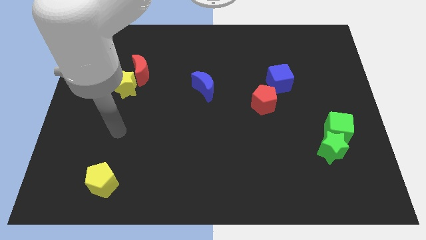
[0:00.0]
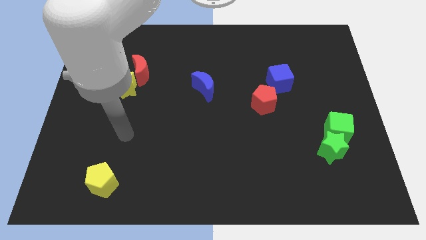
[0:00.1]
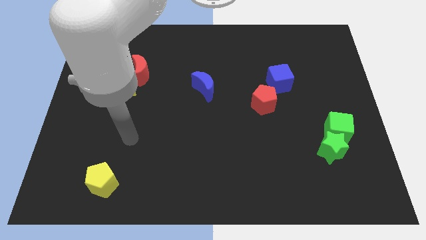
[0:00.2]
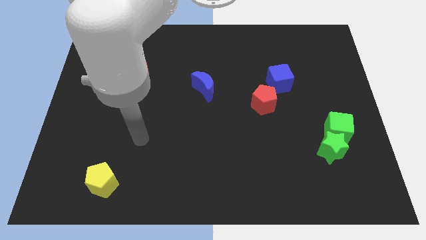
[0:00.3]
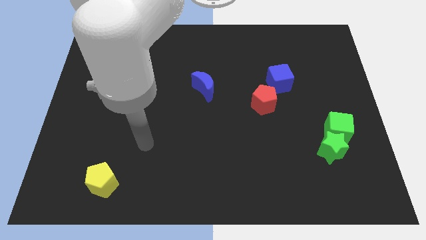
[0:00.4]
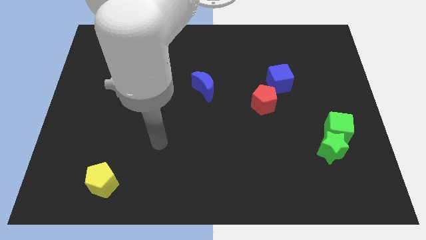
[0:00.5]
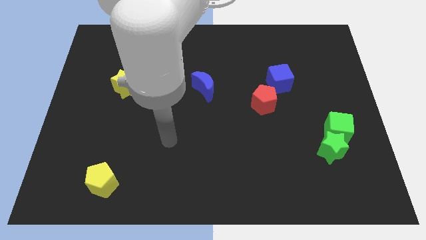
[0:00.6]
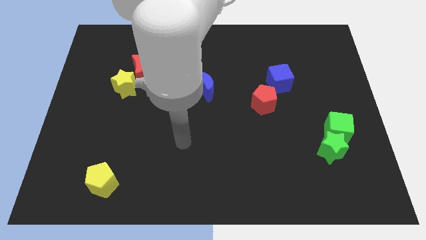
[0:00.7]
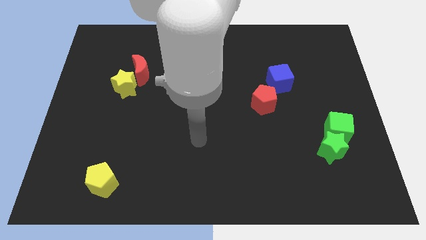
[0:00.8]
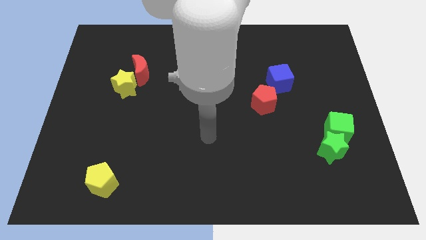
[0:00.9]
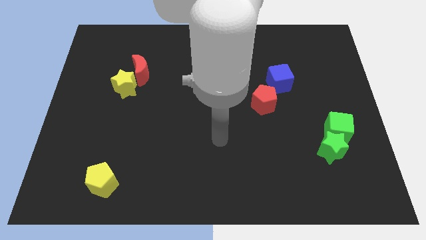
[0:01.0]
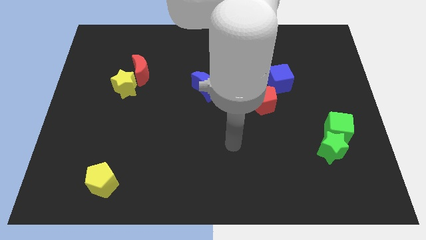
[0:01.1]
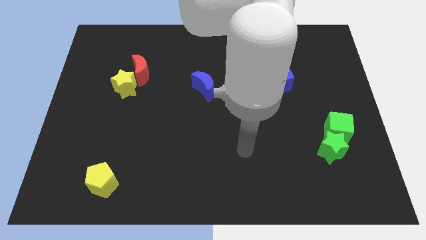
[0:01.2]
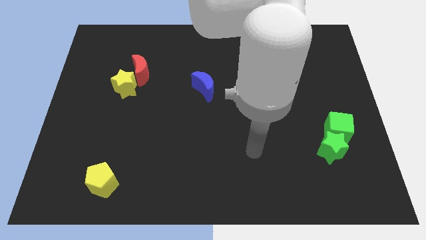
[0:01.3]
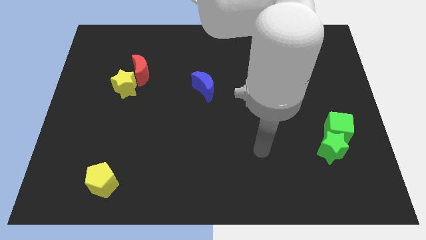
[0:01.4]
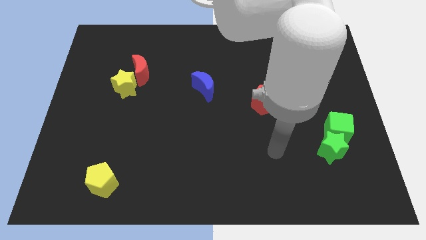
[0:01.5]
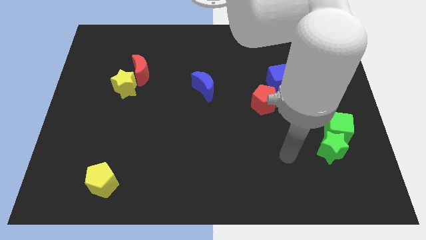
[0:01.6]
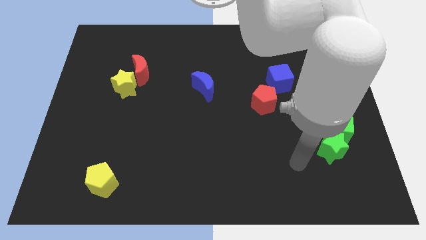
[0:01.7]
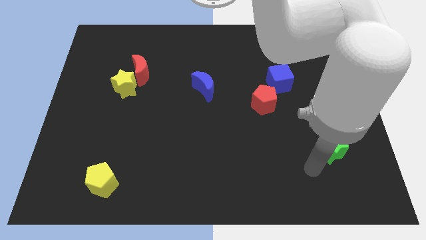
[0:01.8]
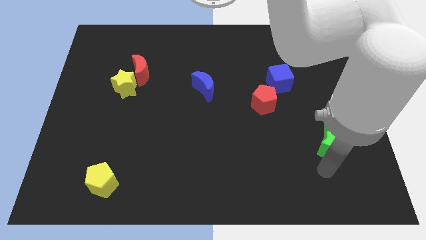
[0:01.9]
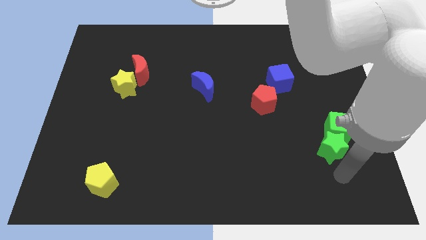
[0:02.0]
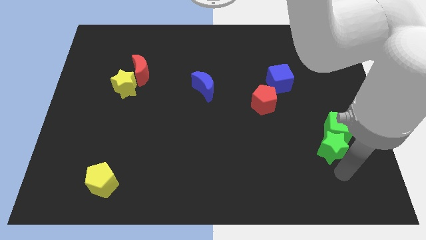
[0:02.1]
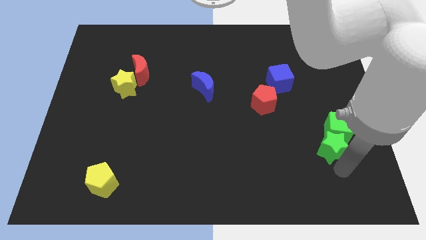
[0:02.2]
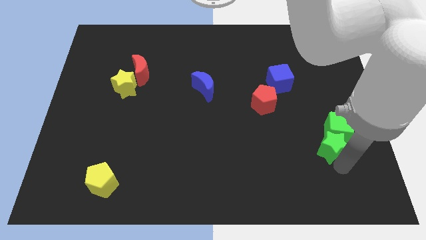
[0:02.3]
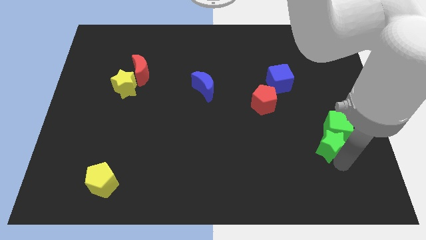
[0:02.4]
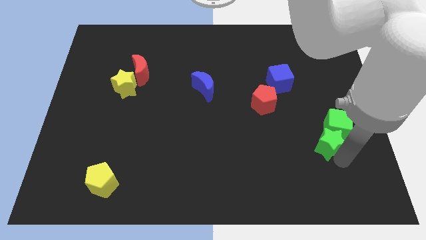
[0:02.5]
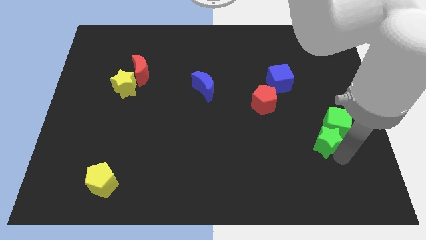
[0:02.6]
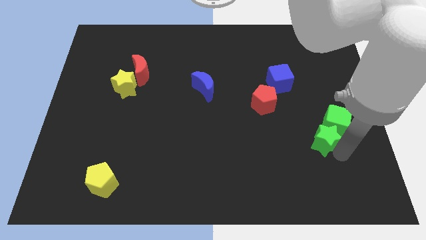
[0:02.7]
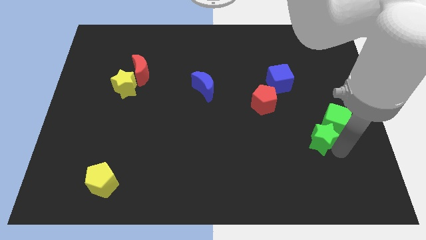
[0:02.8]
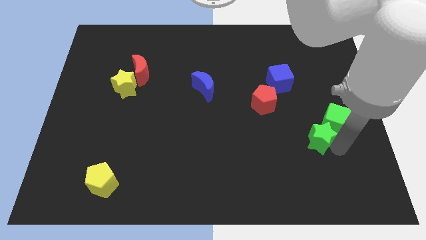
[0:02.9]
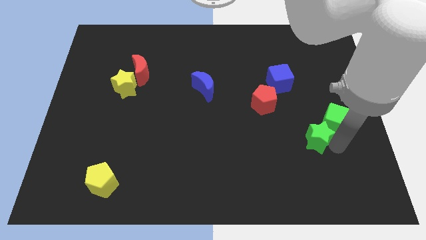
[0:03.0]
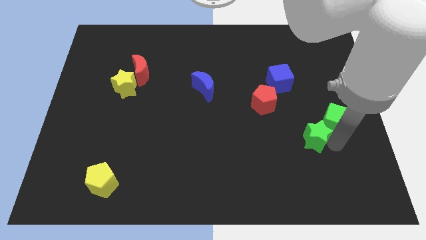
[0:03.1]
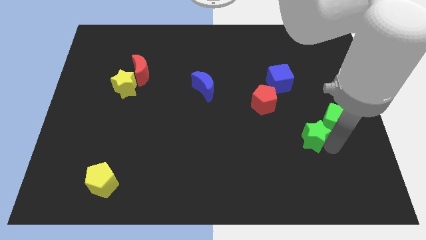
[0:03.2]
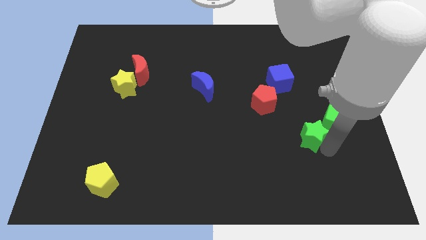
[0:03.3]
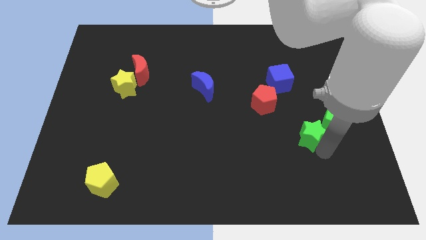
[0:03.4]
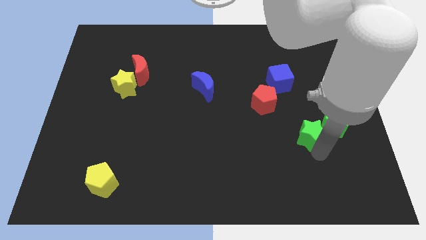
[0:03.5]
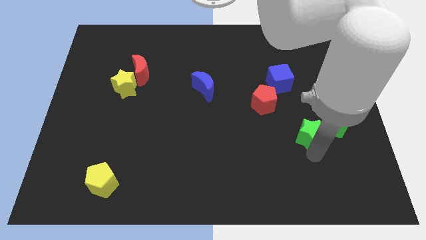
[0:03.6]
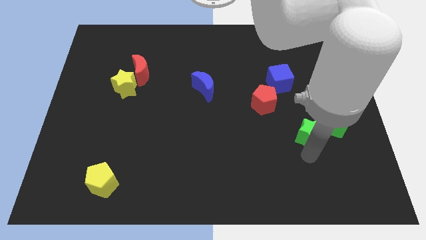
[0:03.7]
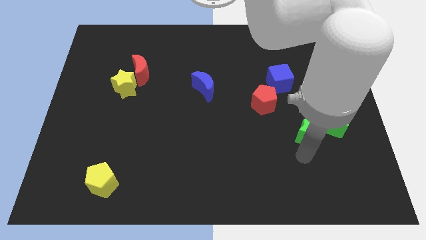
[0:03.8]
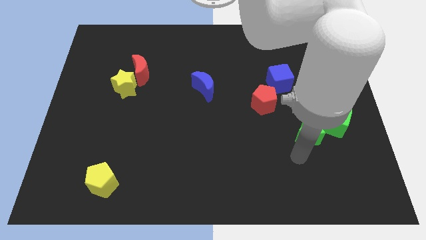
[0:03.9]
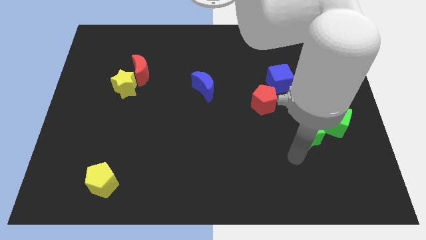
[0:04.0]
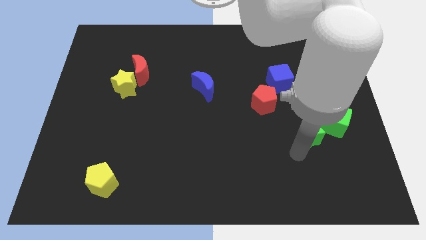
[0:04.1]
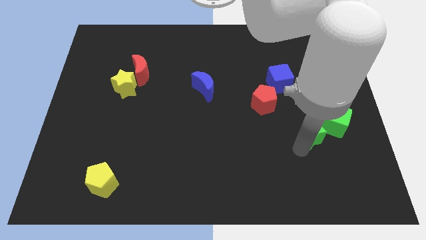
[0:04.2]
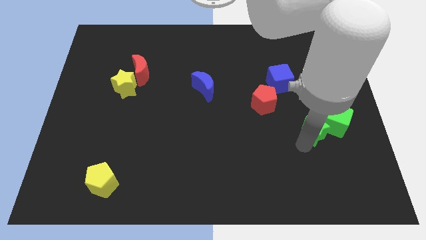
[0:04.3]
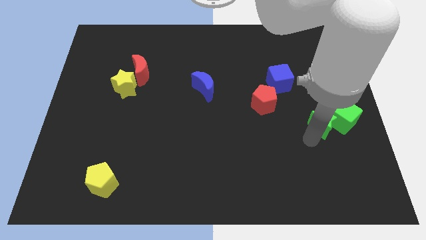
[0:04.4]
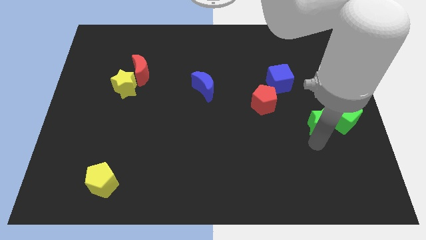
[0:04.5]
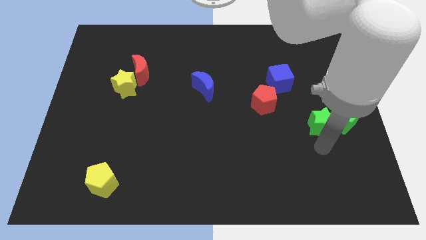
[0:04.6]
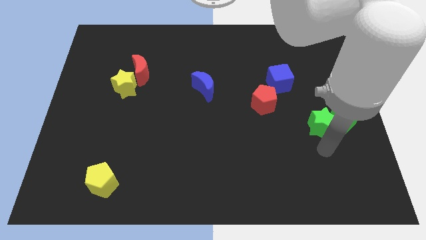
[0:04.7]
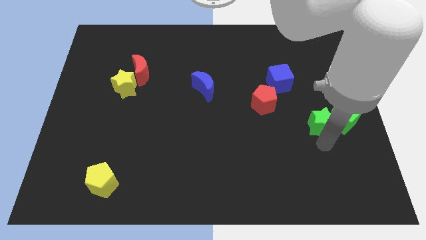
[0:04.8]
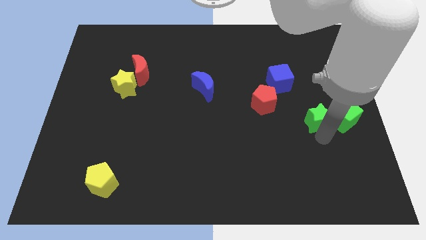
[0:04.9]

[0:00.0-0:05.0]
move the green star to the top left of the green cube

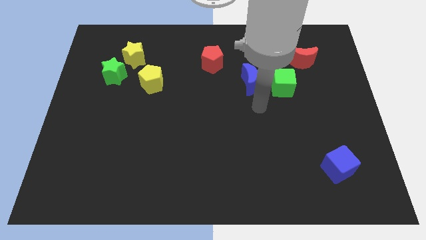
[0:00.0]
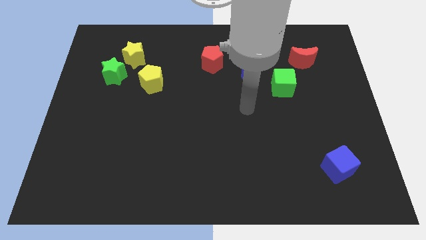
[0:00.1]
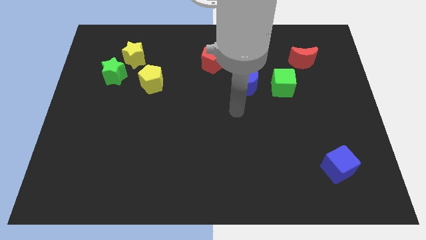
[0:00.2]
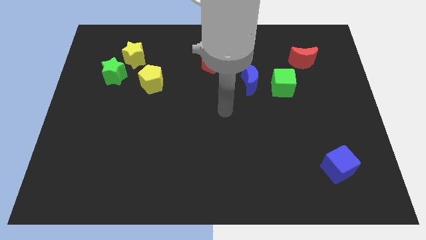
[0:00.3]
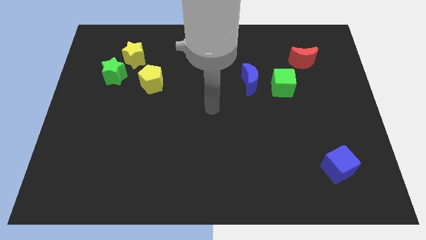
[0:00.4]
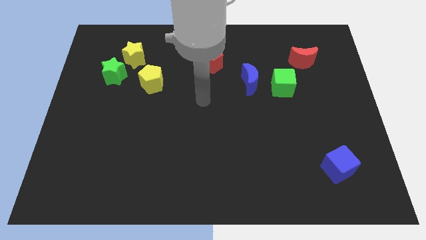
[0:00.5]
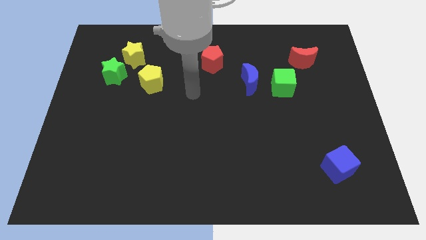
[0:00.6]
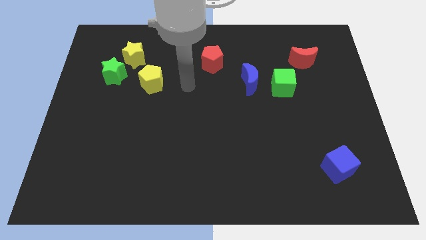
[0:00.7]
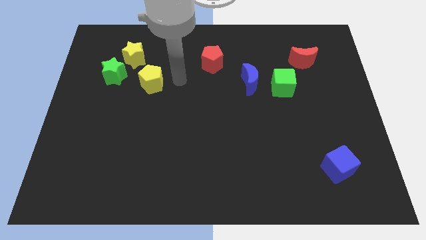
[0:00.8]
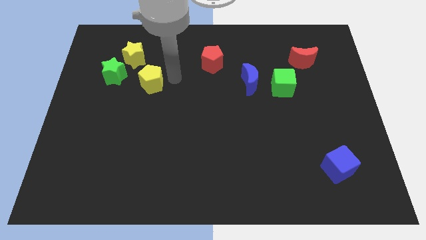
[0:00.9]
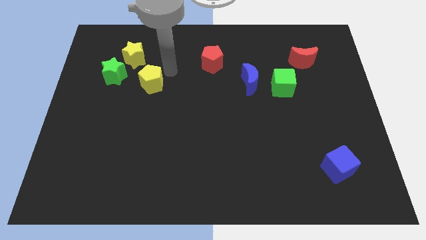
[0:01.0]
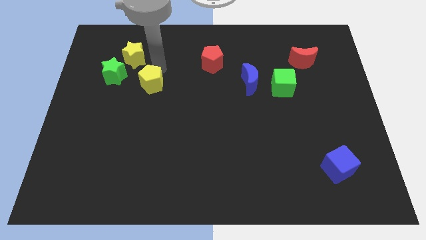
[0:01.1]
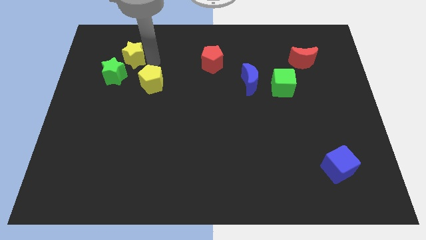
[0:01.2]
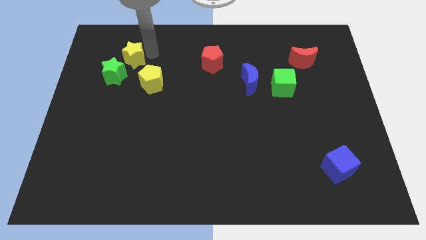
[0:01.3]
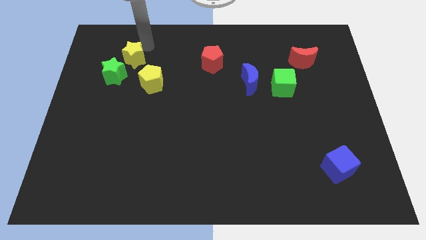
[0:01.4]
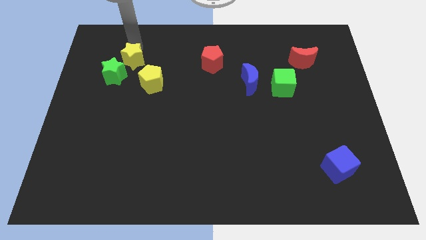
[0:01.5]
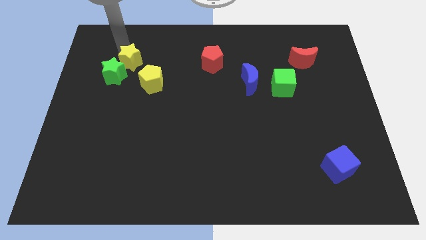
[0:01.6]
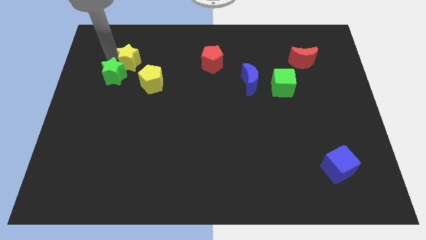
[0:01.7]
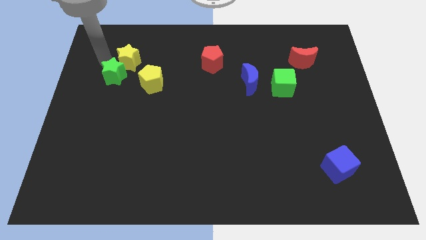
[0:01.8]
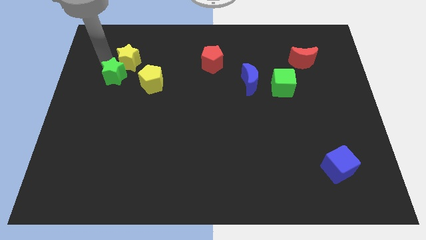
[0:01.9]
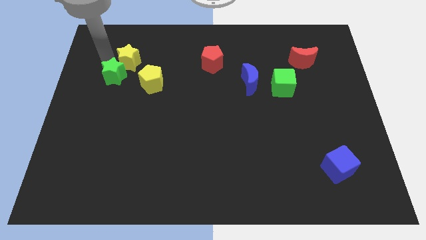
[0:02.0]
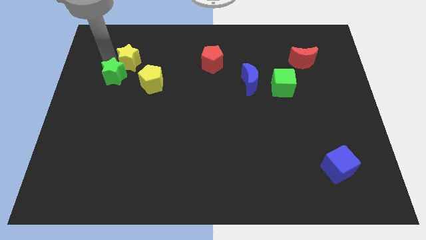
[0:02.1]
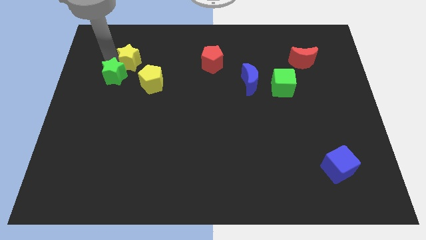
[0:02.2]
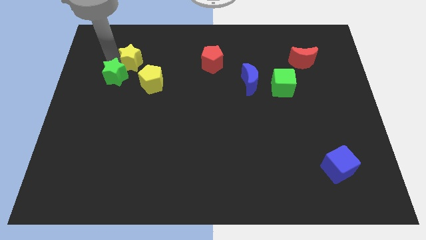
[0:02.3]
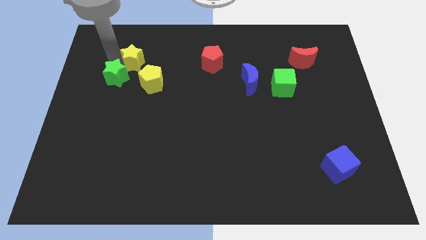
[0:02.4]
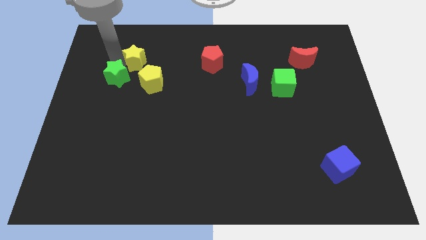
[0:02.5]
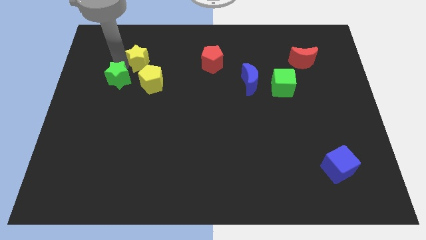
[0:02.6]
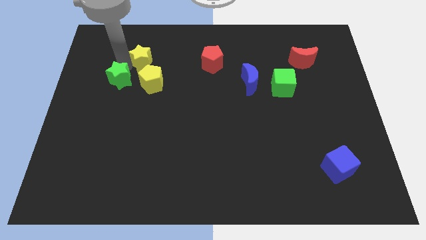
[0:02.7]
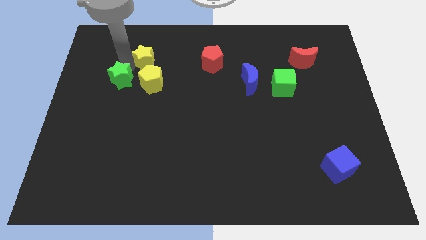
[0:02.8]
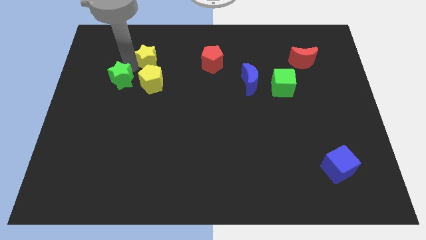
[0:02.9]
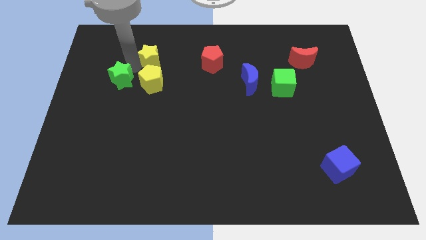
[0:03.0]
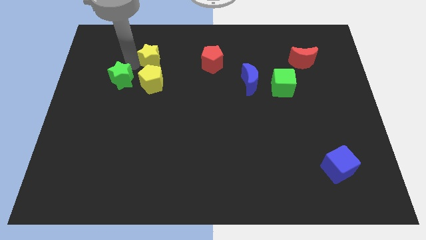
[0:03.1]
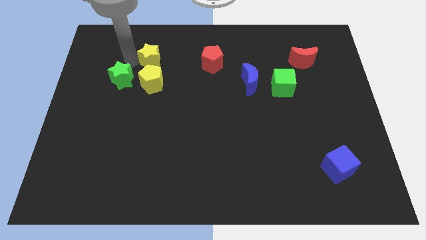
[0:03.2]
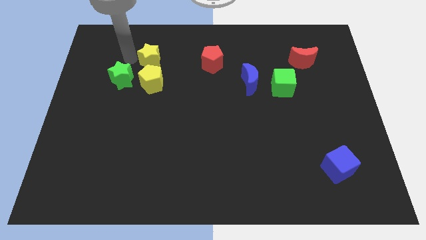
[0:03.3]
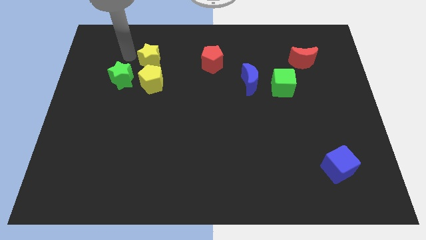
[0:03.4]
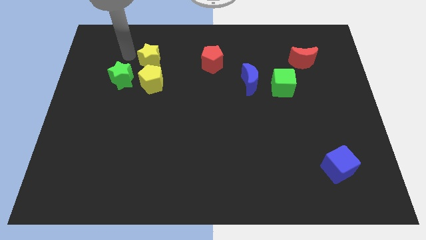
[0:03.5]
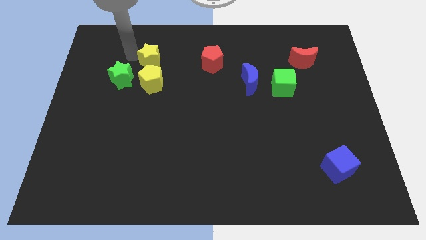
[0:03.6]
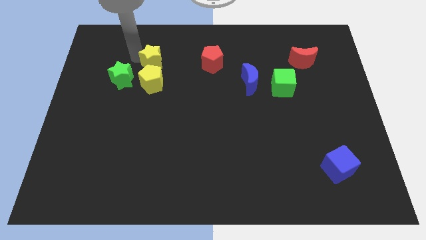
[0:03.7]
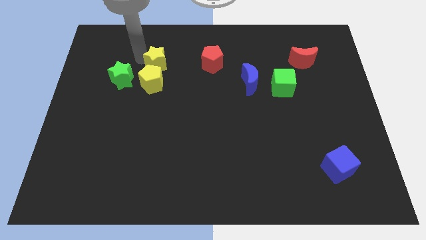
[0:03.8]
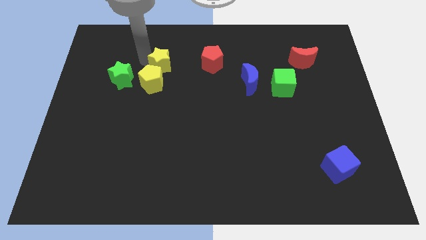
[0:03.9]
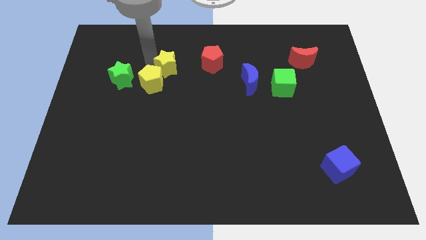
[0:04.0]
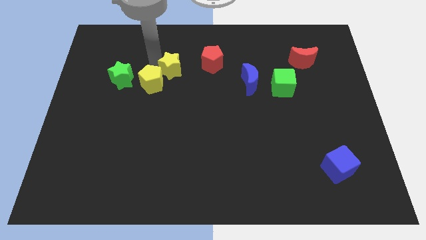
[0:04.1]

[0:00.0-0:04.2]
put the yellow star to the right side of the yellow pentagon
